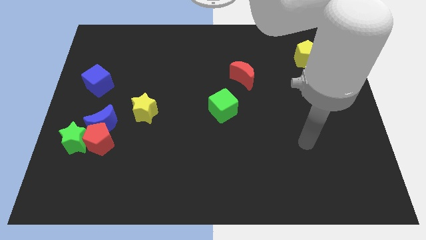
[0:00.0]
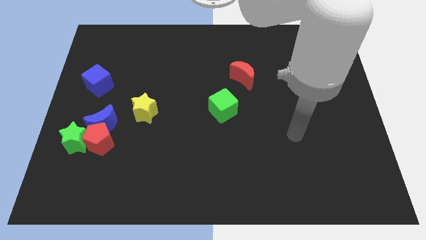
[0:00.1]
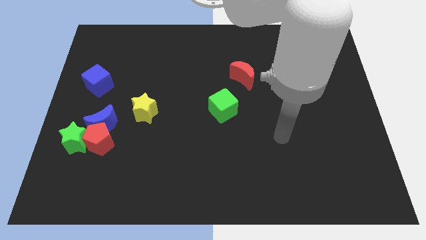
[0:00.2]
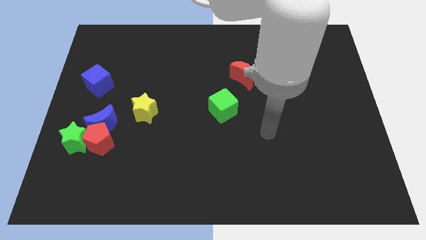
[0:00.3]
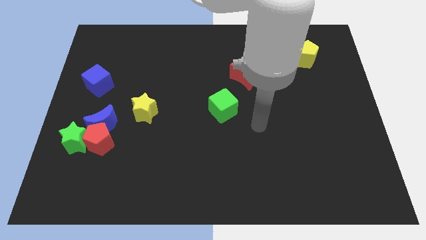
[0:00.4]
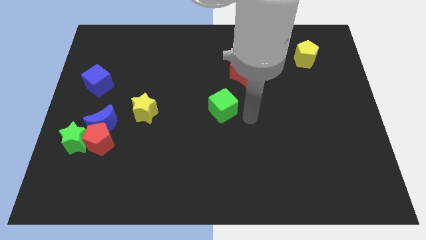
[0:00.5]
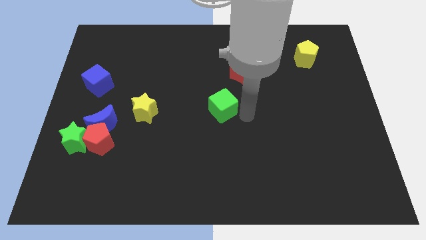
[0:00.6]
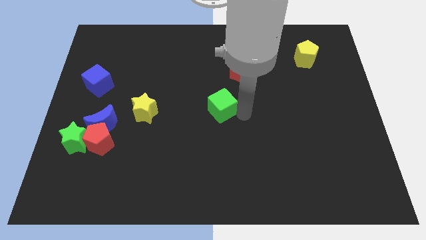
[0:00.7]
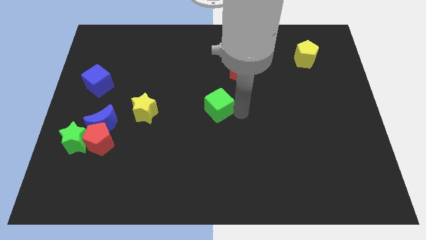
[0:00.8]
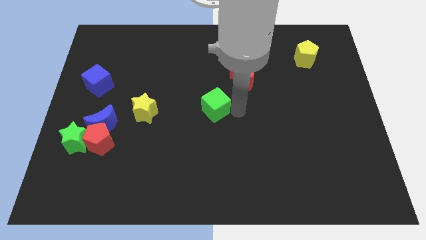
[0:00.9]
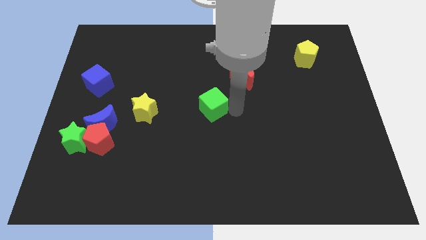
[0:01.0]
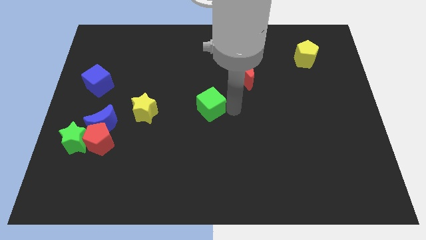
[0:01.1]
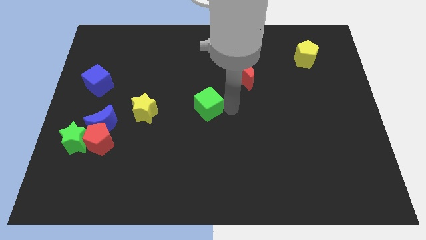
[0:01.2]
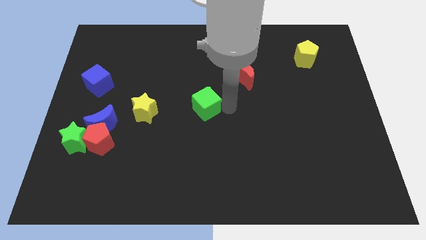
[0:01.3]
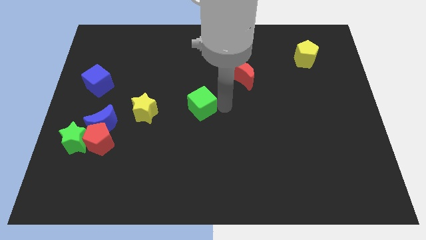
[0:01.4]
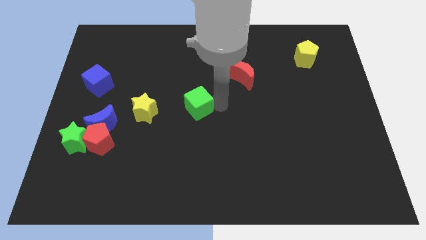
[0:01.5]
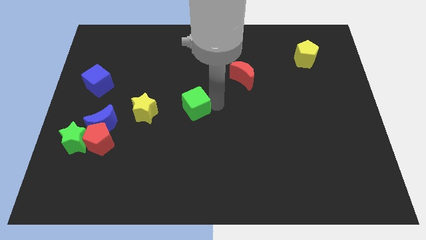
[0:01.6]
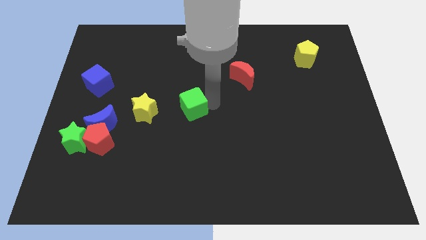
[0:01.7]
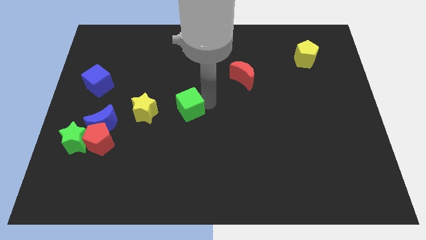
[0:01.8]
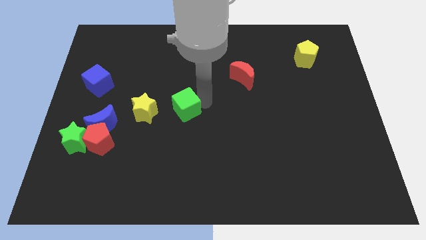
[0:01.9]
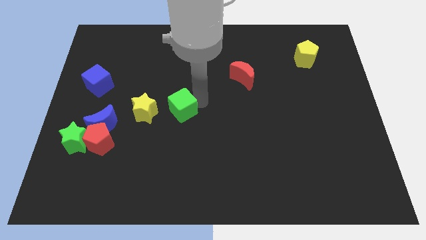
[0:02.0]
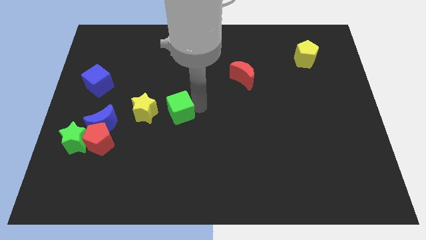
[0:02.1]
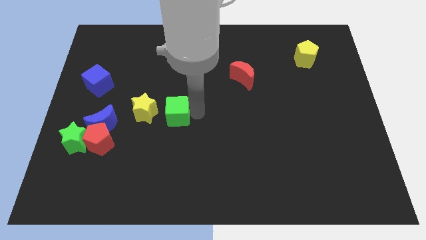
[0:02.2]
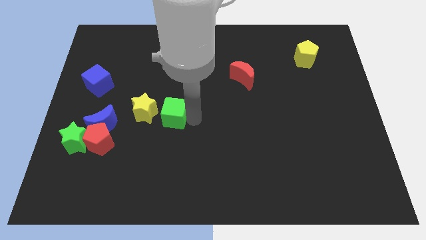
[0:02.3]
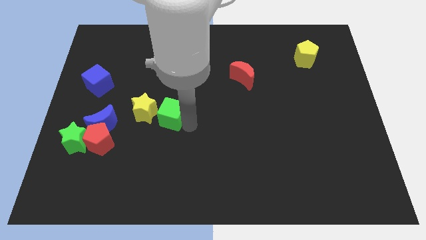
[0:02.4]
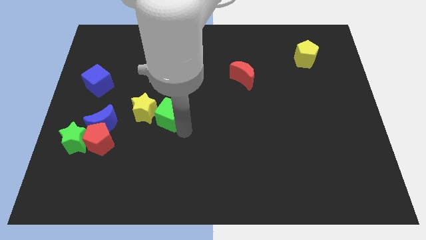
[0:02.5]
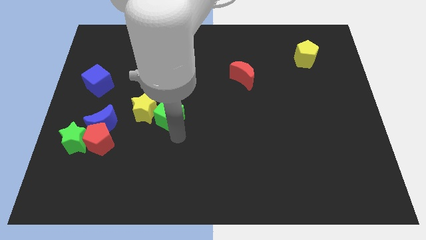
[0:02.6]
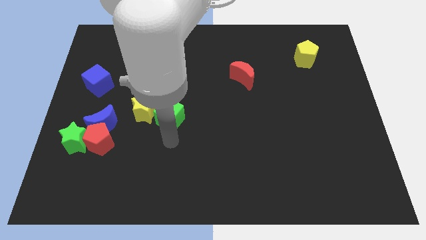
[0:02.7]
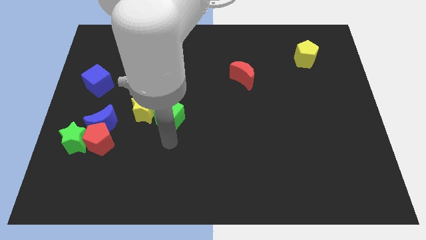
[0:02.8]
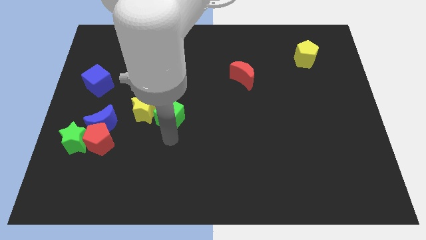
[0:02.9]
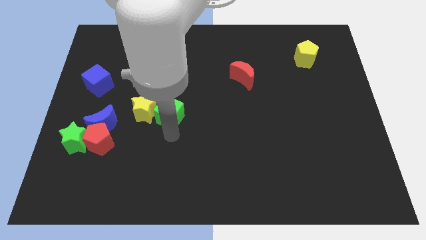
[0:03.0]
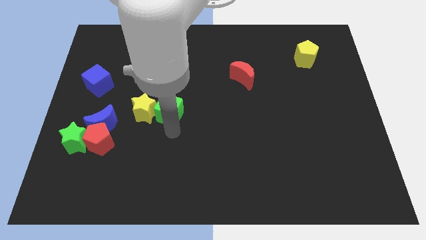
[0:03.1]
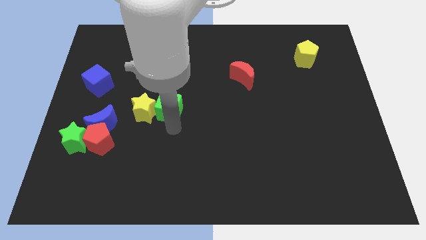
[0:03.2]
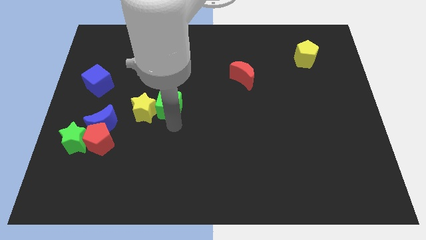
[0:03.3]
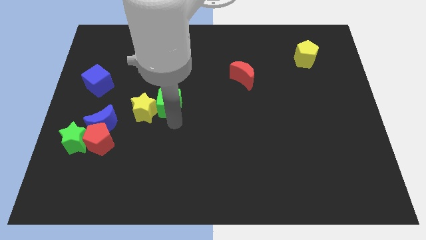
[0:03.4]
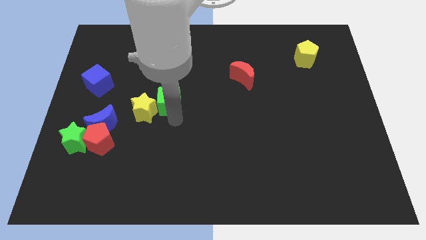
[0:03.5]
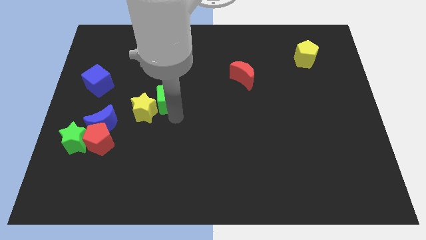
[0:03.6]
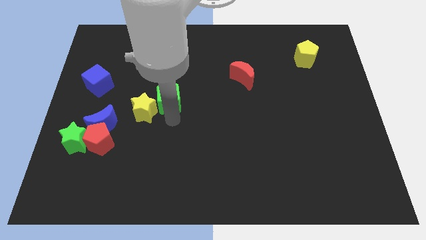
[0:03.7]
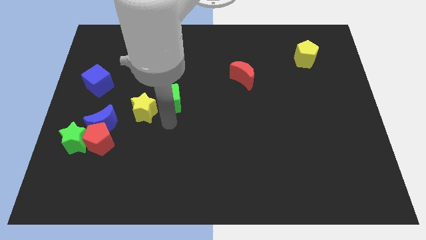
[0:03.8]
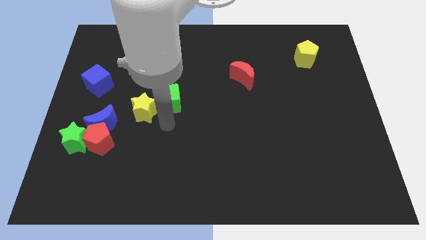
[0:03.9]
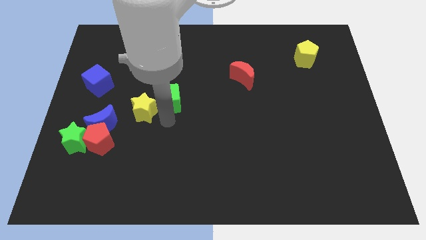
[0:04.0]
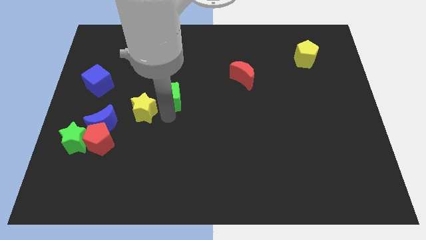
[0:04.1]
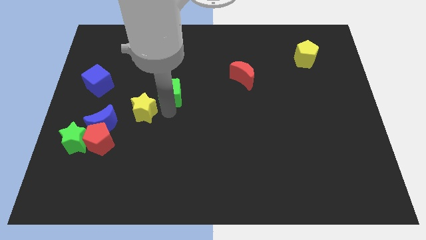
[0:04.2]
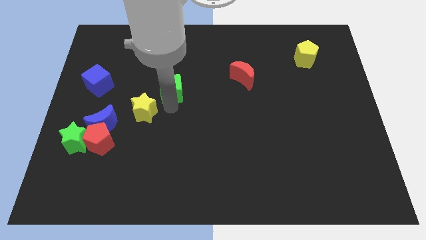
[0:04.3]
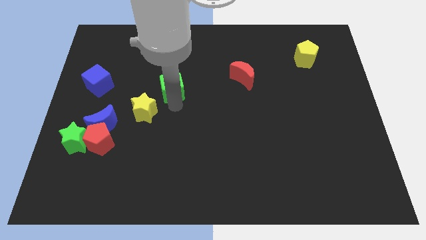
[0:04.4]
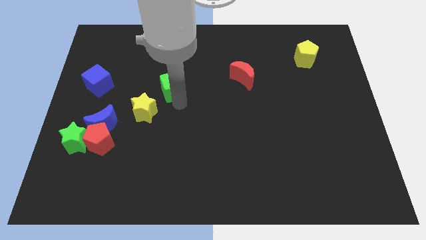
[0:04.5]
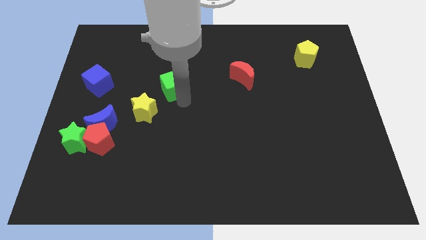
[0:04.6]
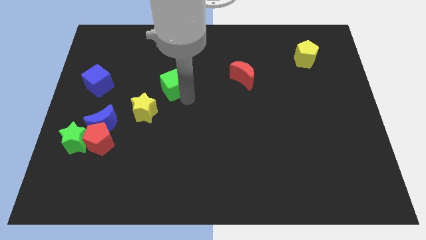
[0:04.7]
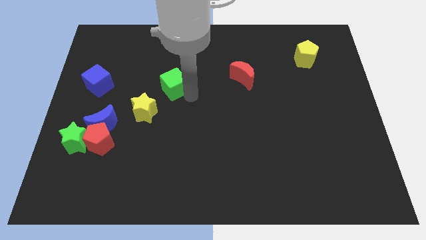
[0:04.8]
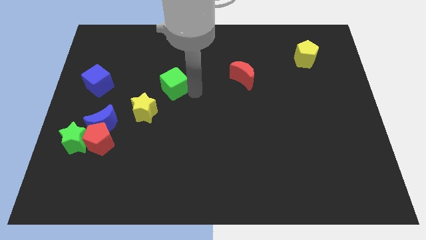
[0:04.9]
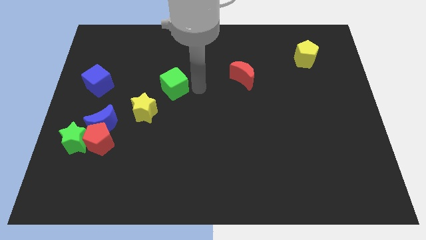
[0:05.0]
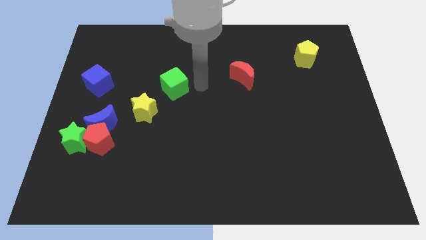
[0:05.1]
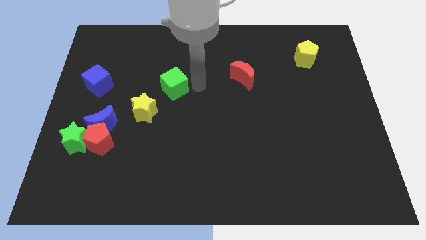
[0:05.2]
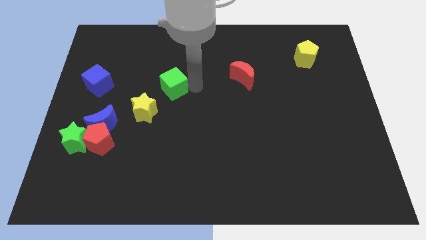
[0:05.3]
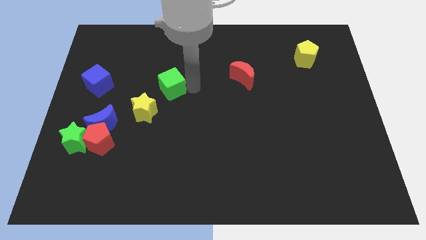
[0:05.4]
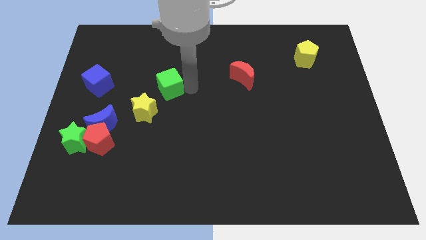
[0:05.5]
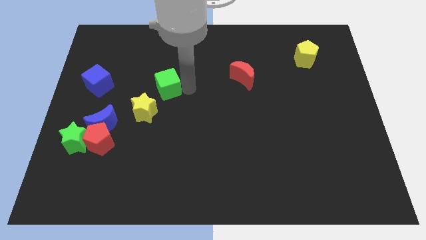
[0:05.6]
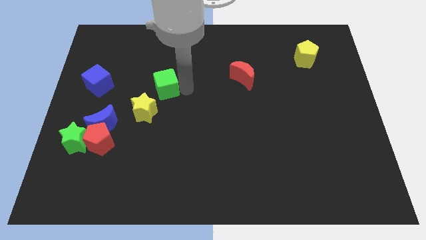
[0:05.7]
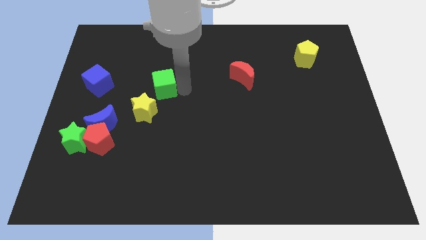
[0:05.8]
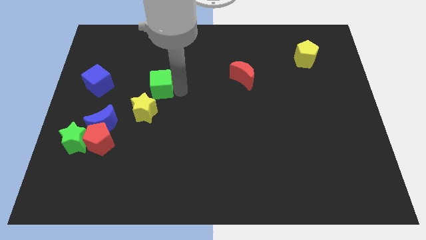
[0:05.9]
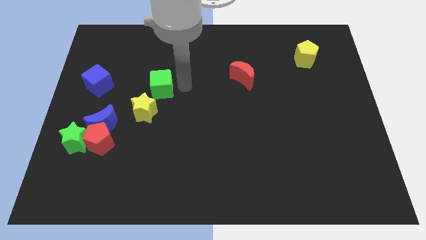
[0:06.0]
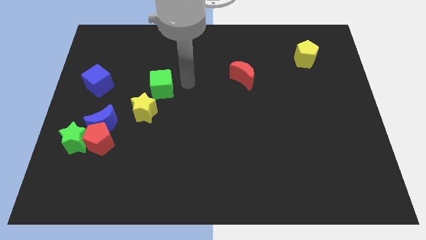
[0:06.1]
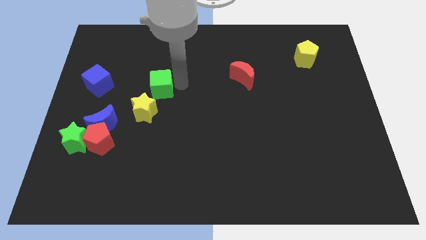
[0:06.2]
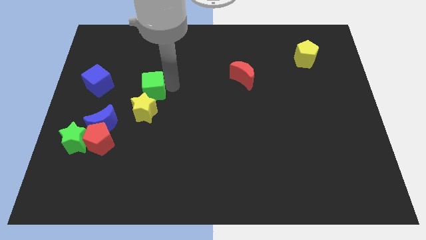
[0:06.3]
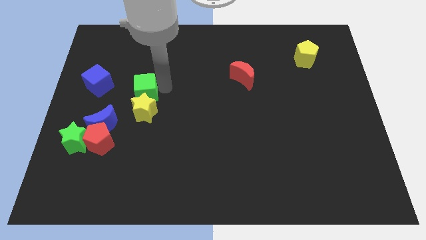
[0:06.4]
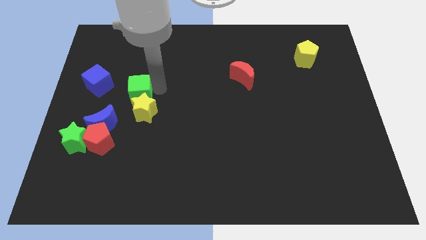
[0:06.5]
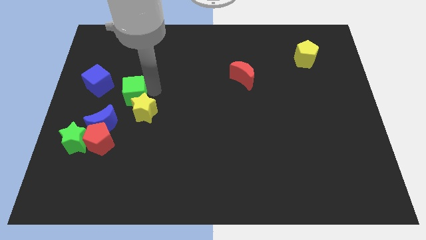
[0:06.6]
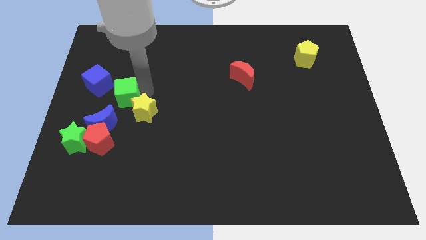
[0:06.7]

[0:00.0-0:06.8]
push the green cube above the red pentagon

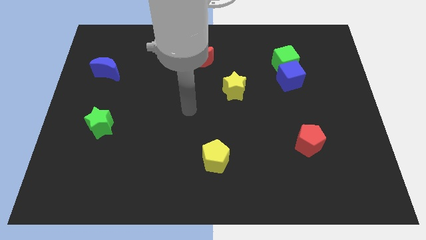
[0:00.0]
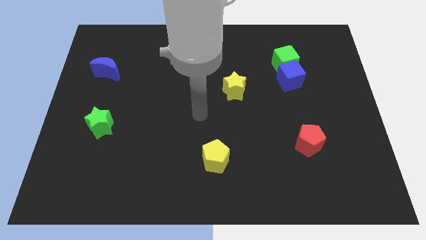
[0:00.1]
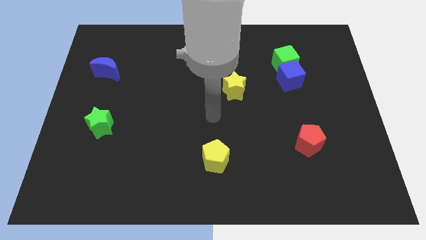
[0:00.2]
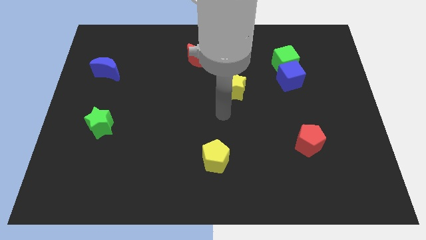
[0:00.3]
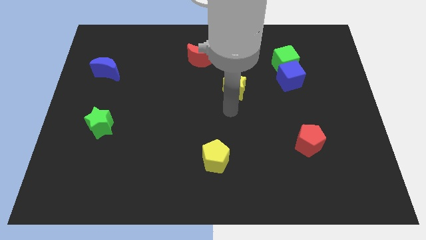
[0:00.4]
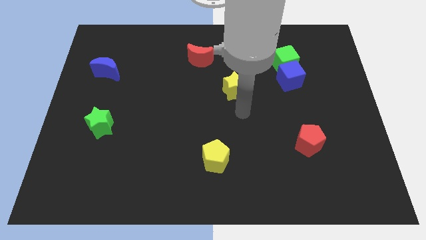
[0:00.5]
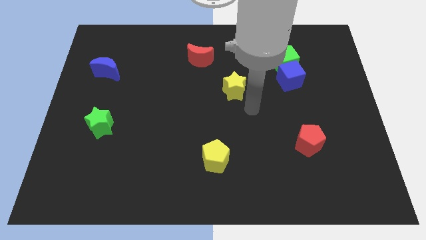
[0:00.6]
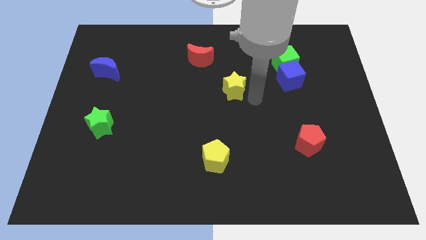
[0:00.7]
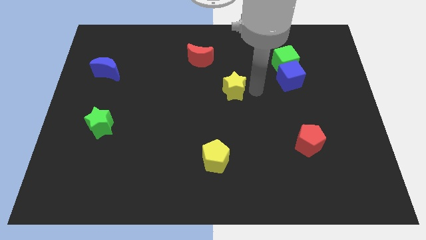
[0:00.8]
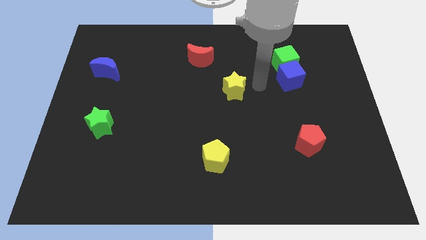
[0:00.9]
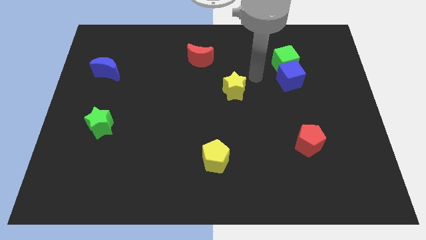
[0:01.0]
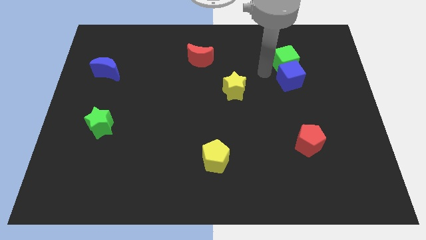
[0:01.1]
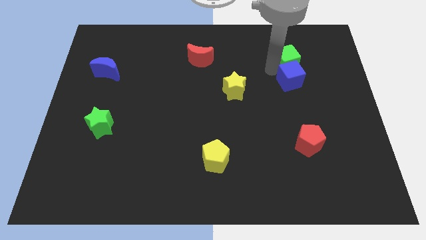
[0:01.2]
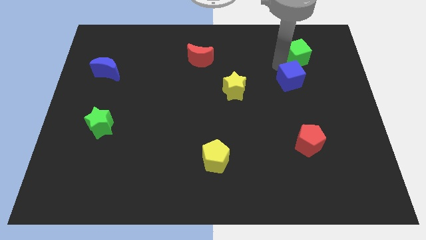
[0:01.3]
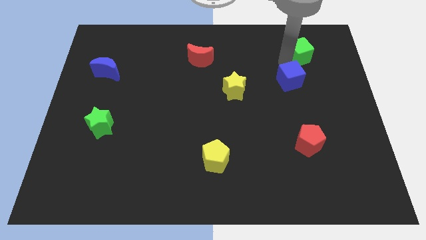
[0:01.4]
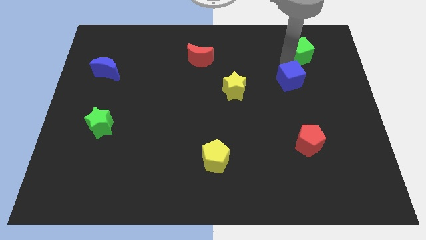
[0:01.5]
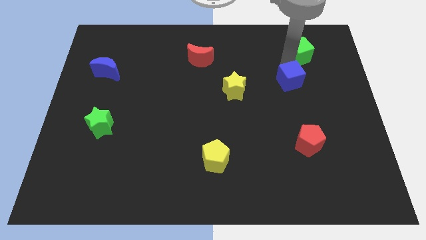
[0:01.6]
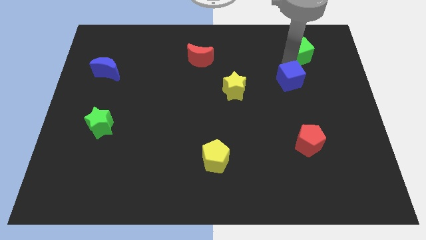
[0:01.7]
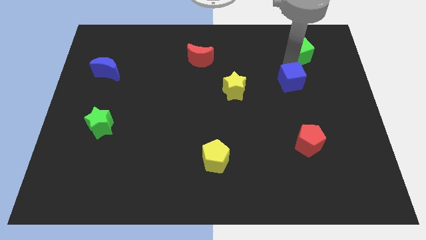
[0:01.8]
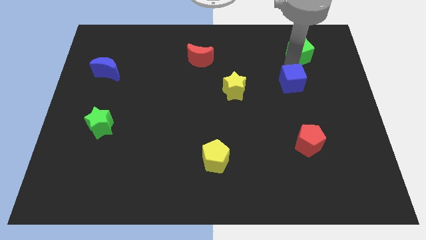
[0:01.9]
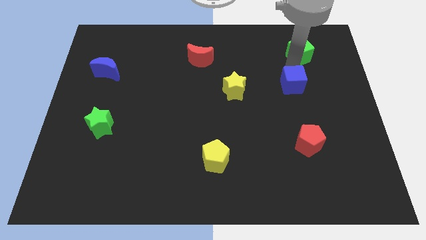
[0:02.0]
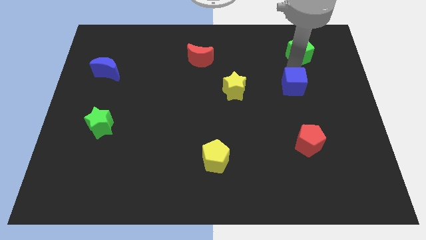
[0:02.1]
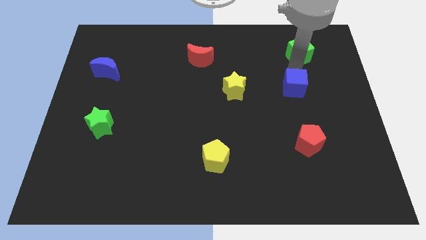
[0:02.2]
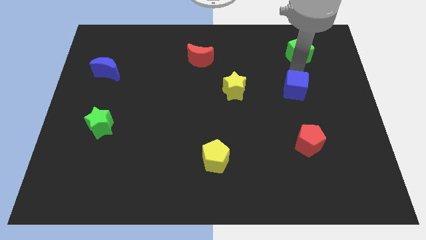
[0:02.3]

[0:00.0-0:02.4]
move the blue cube to the top side of the red pentagon
